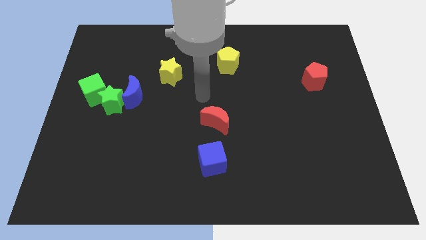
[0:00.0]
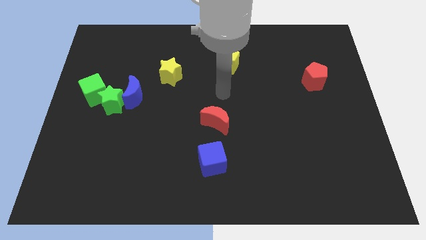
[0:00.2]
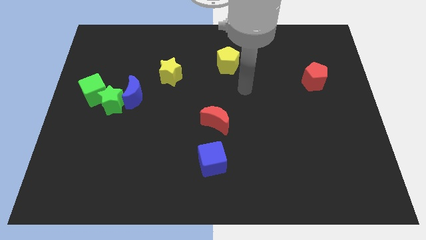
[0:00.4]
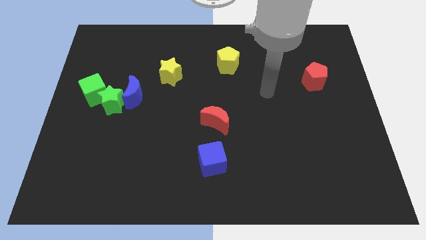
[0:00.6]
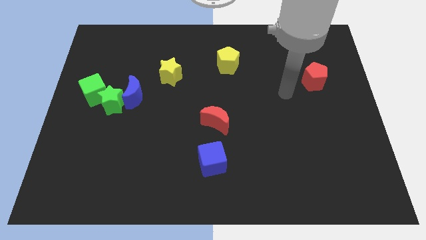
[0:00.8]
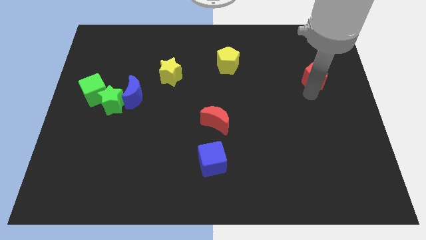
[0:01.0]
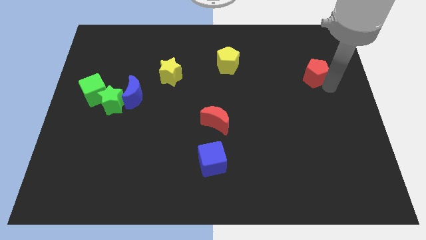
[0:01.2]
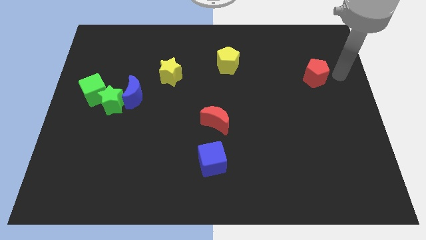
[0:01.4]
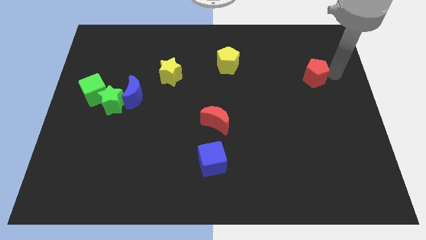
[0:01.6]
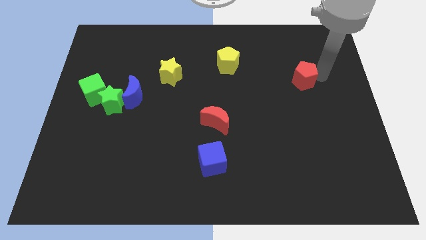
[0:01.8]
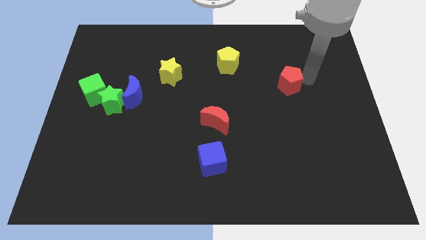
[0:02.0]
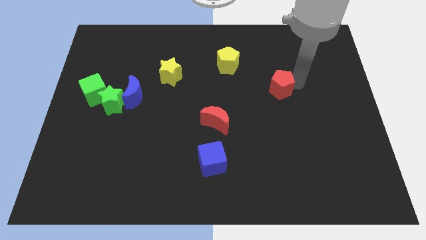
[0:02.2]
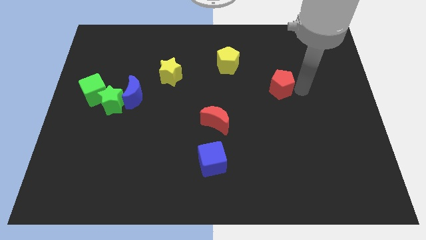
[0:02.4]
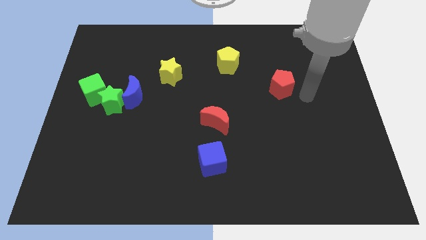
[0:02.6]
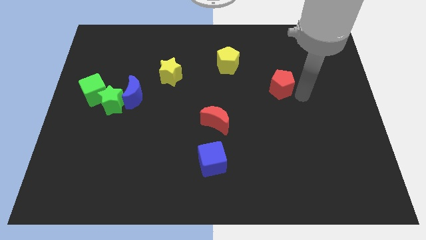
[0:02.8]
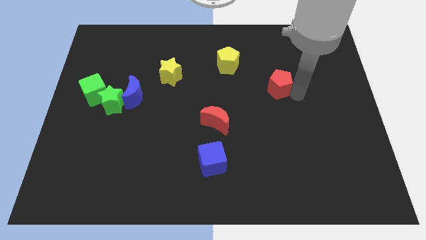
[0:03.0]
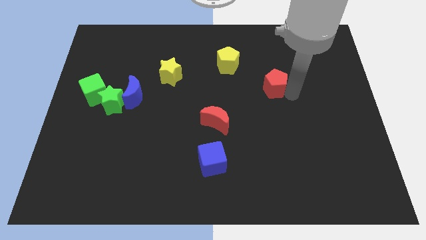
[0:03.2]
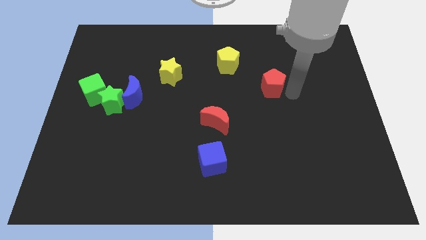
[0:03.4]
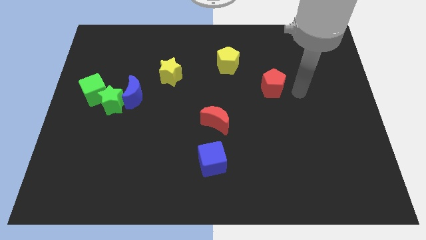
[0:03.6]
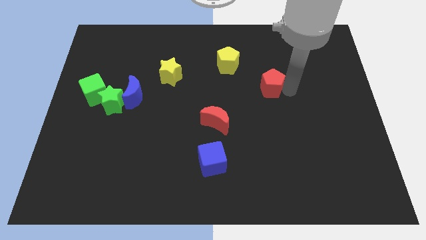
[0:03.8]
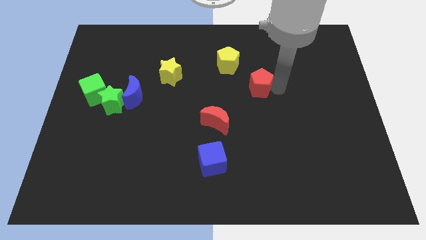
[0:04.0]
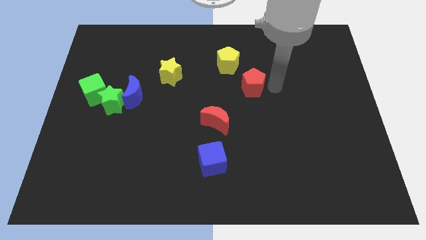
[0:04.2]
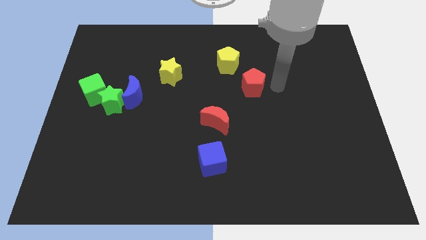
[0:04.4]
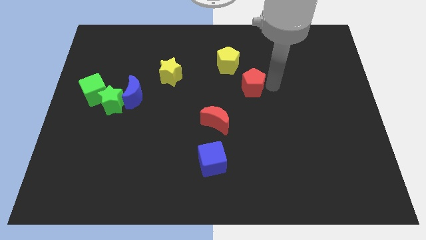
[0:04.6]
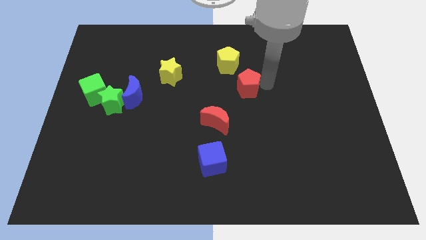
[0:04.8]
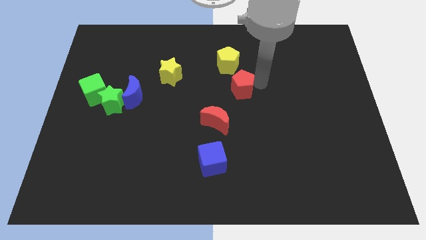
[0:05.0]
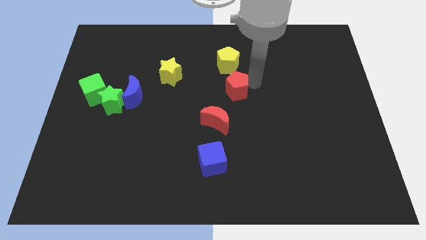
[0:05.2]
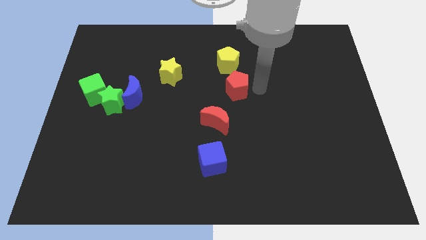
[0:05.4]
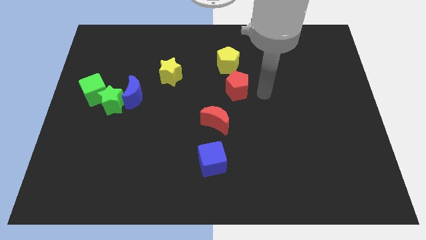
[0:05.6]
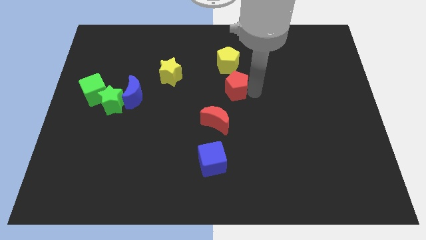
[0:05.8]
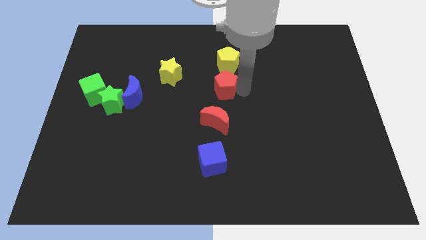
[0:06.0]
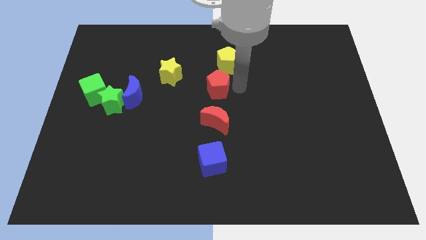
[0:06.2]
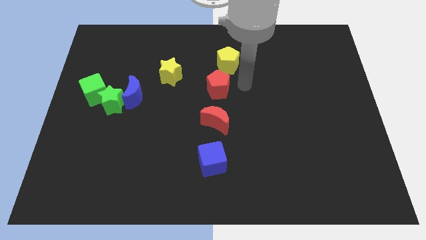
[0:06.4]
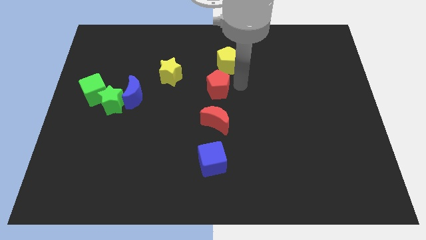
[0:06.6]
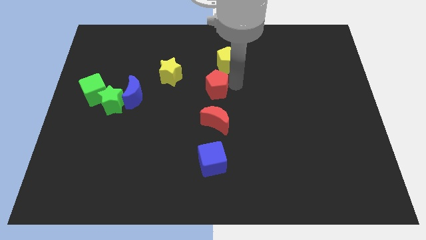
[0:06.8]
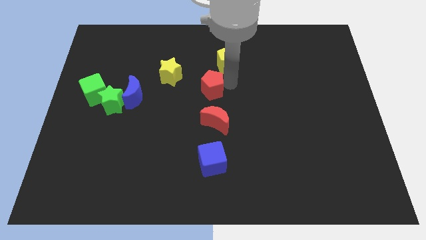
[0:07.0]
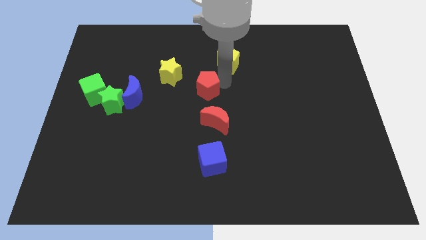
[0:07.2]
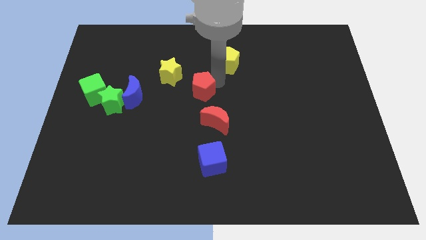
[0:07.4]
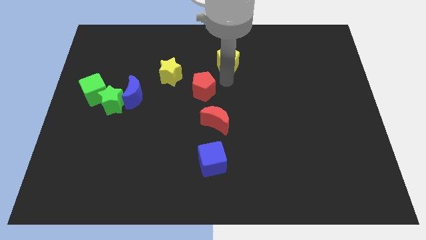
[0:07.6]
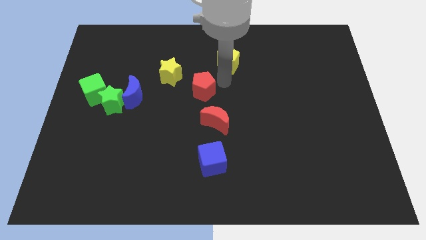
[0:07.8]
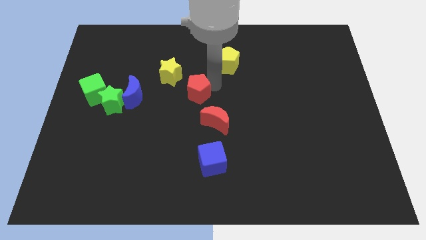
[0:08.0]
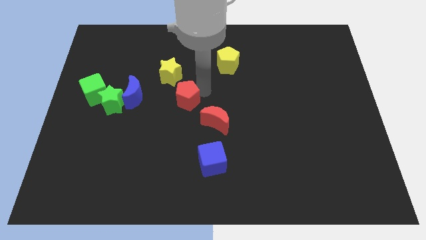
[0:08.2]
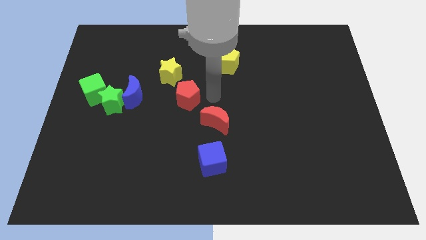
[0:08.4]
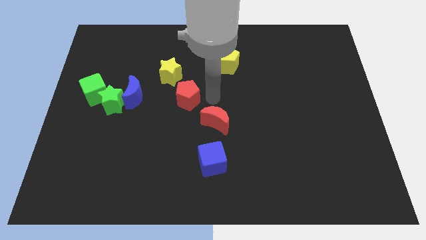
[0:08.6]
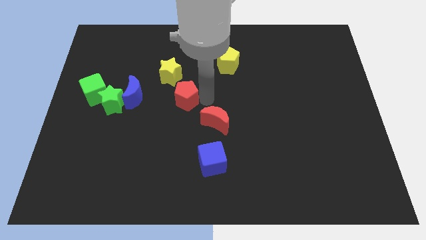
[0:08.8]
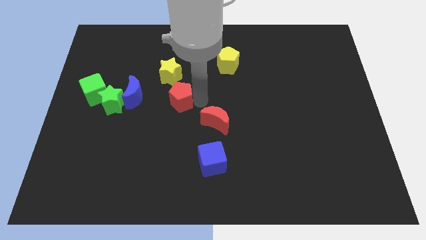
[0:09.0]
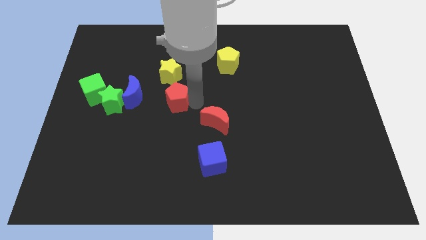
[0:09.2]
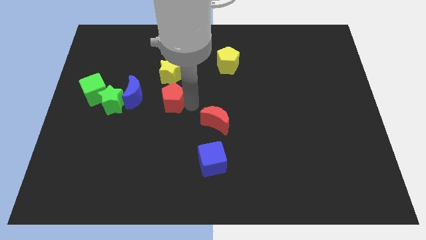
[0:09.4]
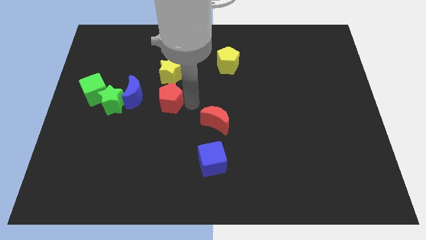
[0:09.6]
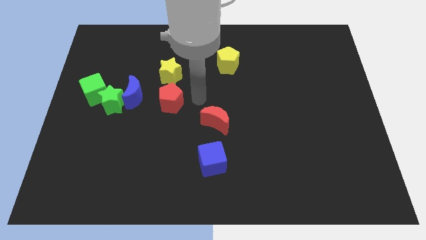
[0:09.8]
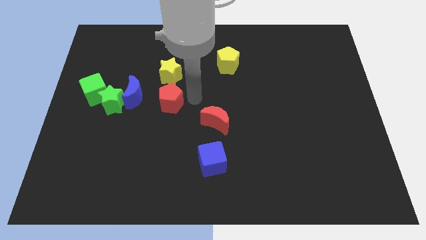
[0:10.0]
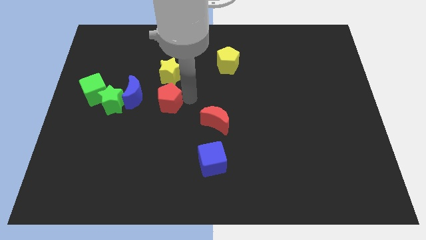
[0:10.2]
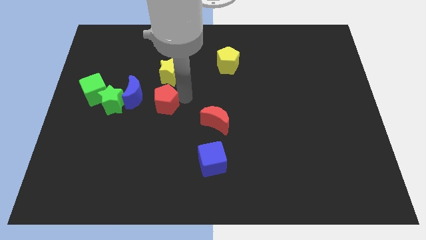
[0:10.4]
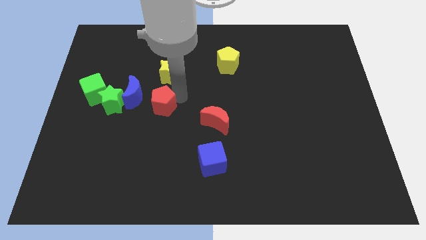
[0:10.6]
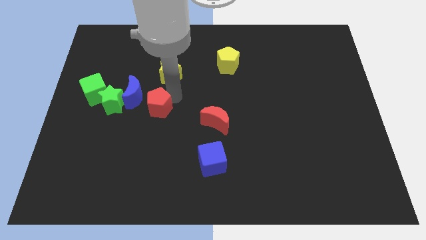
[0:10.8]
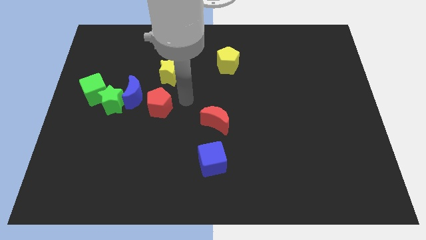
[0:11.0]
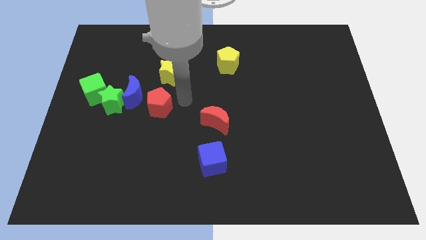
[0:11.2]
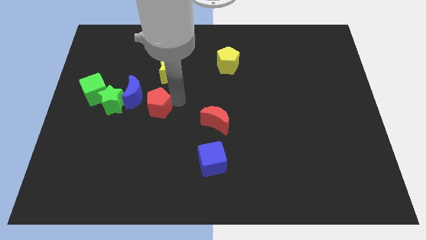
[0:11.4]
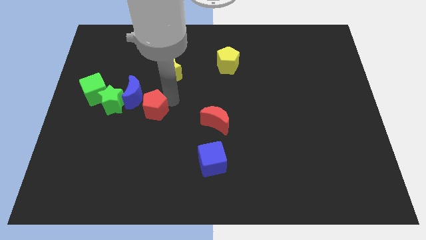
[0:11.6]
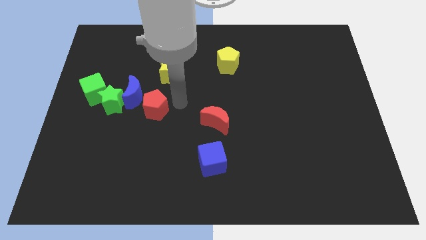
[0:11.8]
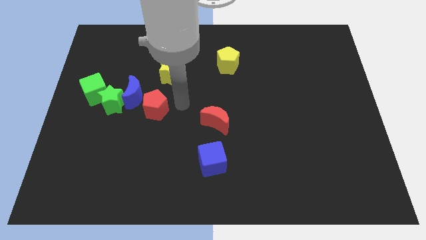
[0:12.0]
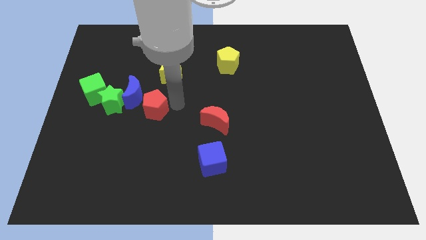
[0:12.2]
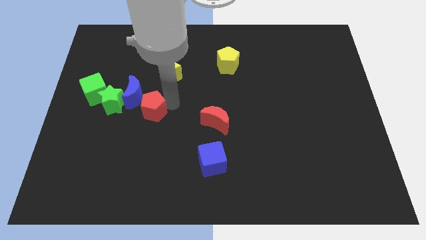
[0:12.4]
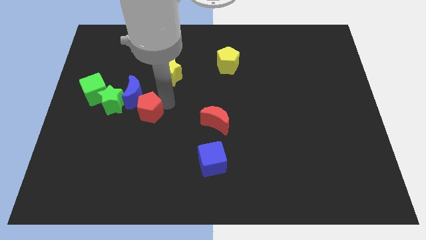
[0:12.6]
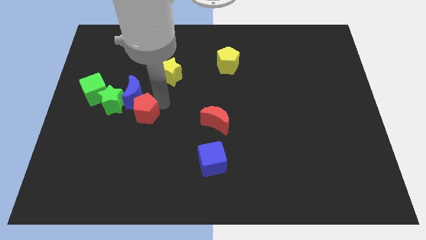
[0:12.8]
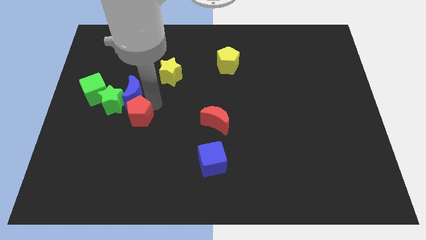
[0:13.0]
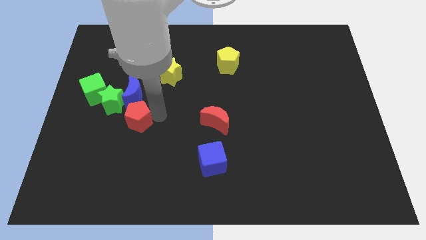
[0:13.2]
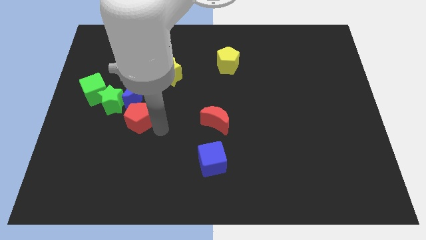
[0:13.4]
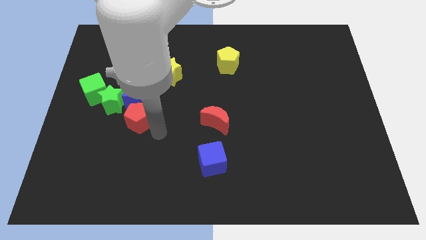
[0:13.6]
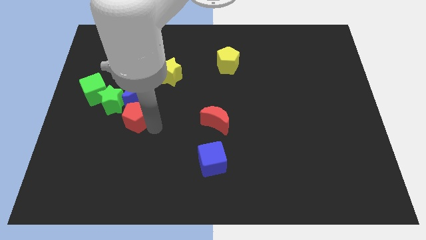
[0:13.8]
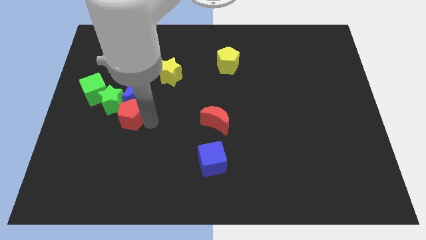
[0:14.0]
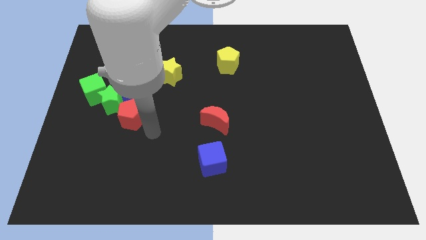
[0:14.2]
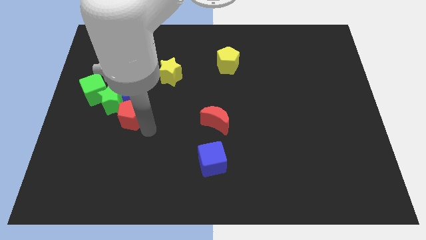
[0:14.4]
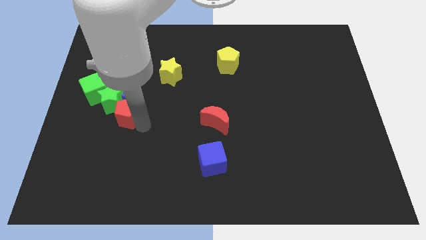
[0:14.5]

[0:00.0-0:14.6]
push the red pentagon to the green star

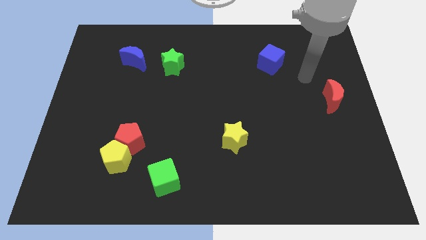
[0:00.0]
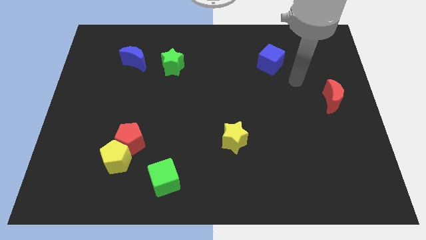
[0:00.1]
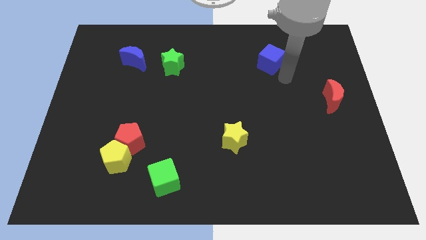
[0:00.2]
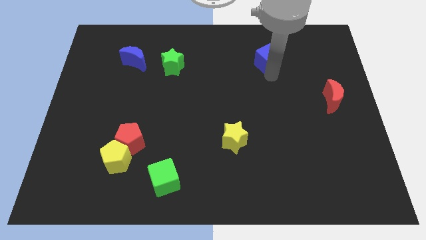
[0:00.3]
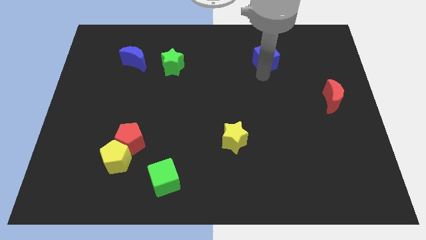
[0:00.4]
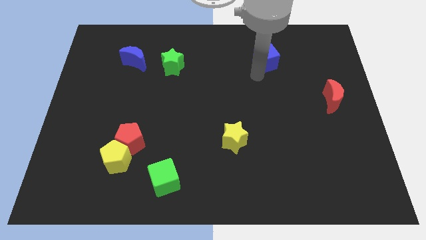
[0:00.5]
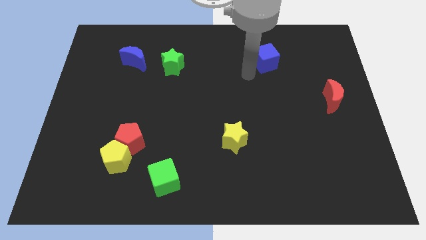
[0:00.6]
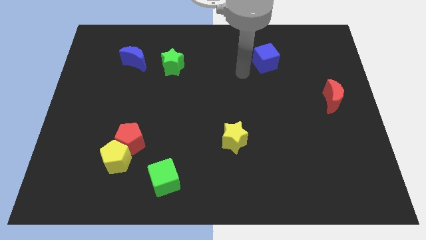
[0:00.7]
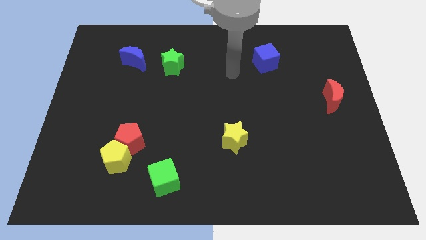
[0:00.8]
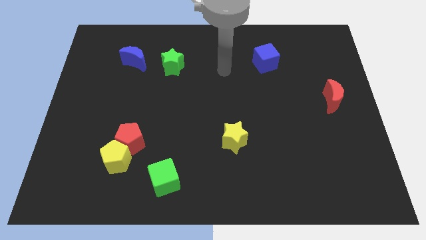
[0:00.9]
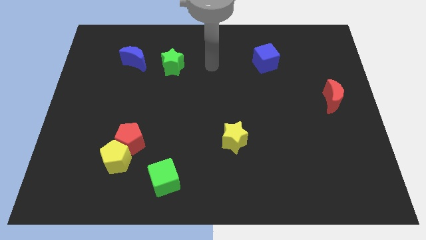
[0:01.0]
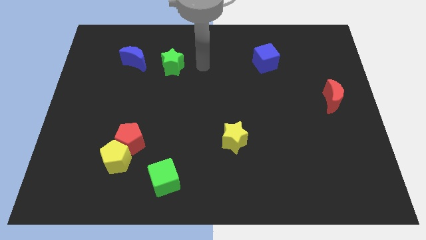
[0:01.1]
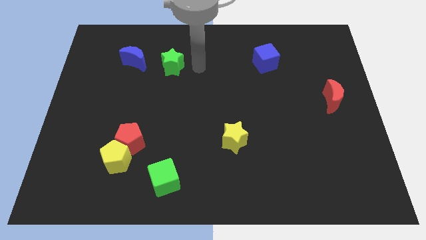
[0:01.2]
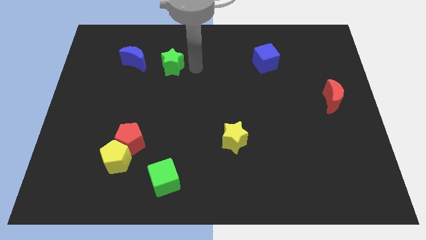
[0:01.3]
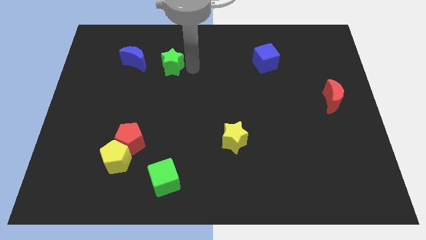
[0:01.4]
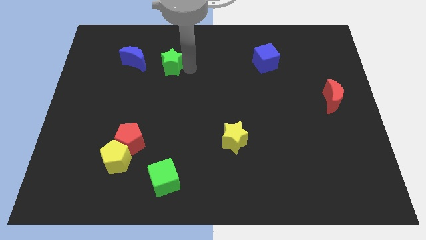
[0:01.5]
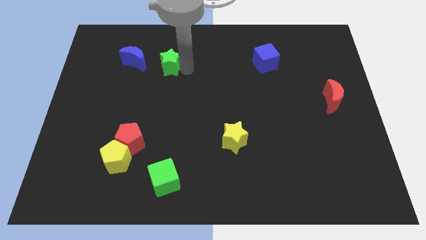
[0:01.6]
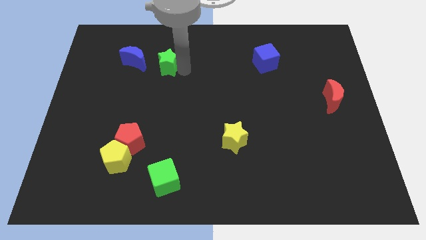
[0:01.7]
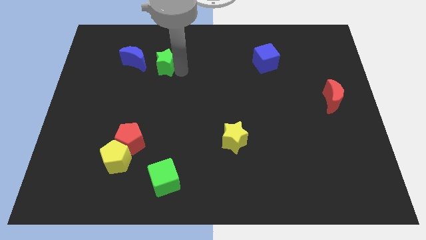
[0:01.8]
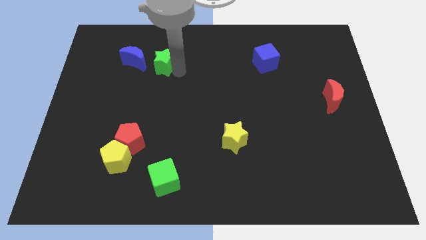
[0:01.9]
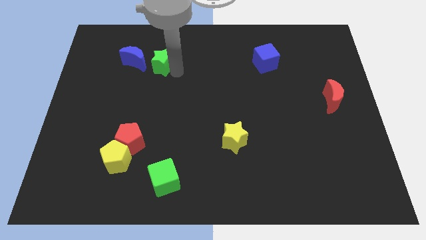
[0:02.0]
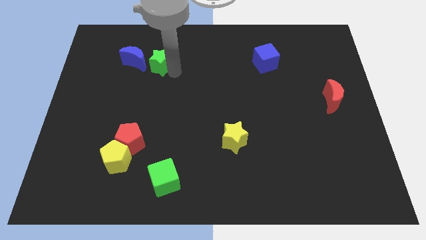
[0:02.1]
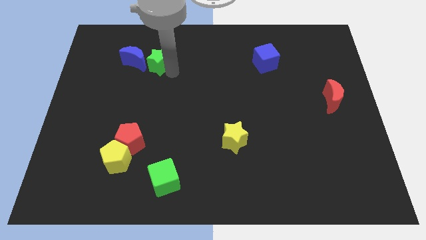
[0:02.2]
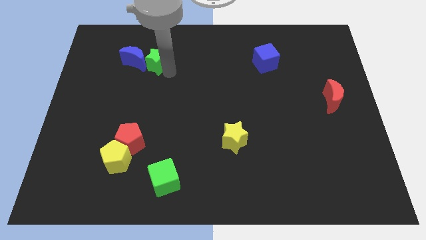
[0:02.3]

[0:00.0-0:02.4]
put the green star towards the blue moon
